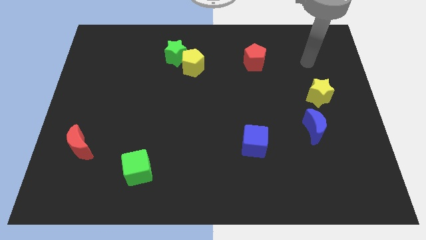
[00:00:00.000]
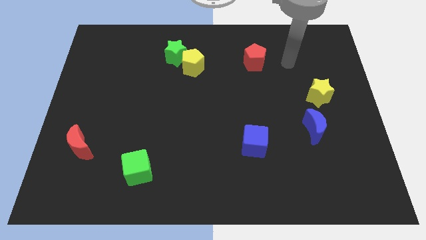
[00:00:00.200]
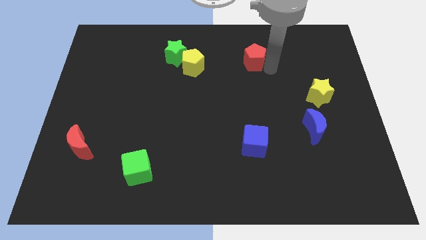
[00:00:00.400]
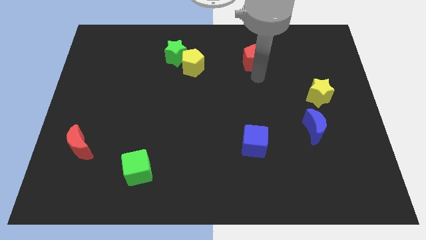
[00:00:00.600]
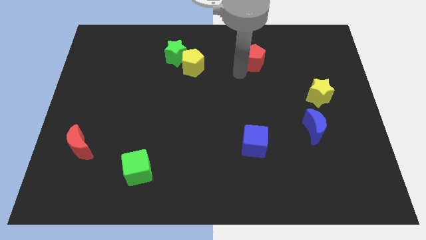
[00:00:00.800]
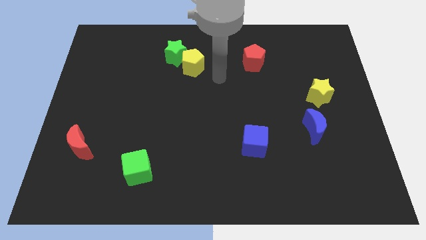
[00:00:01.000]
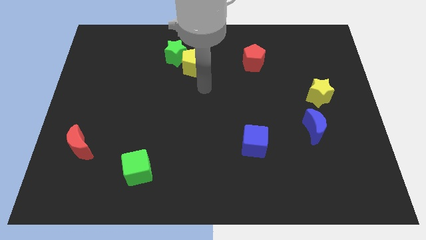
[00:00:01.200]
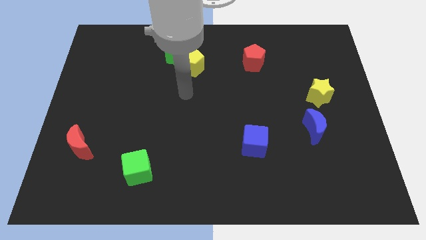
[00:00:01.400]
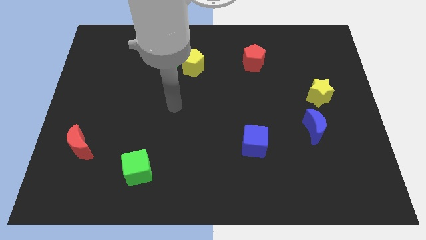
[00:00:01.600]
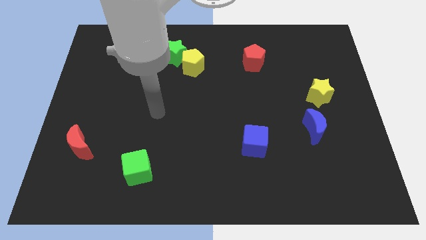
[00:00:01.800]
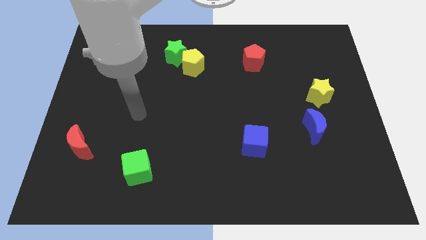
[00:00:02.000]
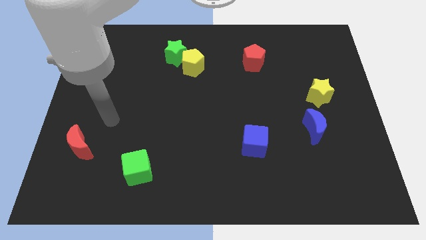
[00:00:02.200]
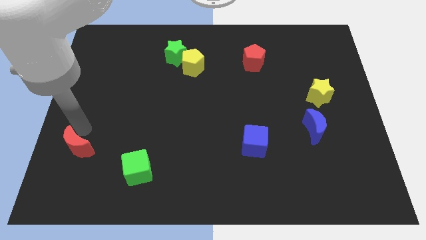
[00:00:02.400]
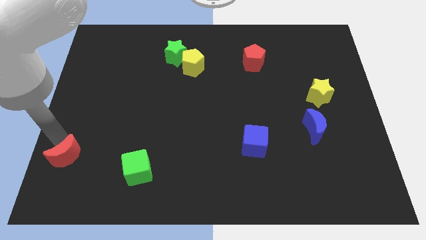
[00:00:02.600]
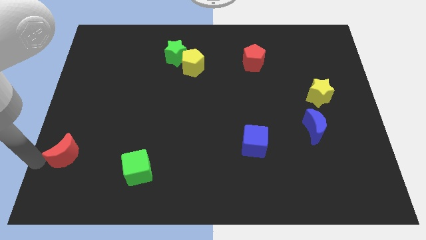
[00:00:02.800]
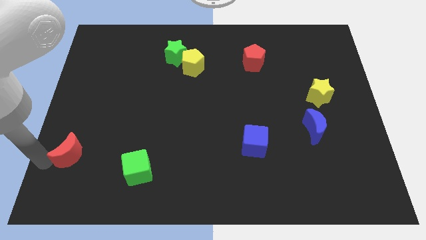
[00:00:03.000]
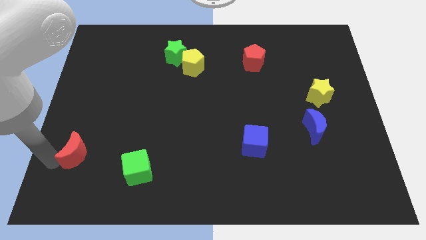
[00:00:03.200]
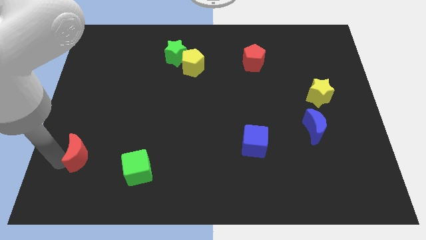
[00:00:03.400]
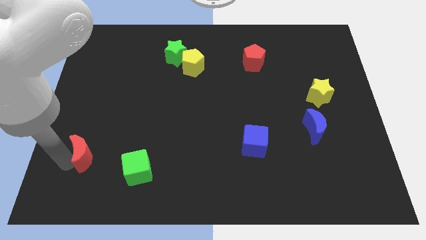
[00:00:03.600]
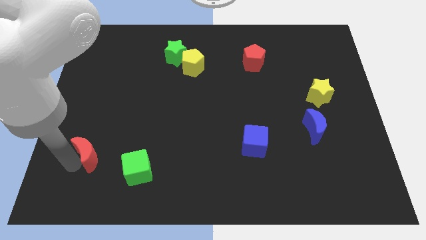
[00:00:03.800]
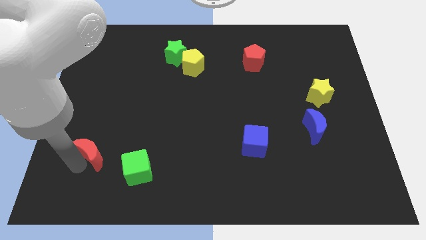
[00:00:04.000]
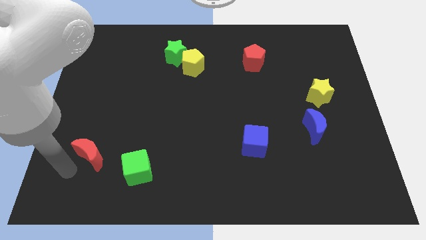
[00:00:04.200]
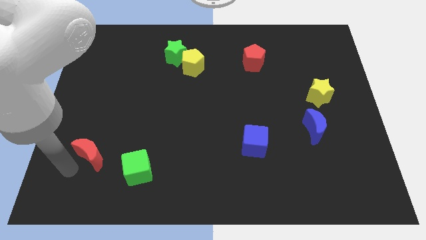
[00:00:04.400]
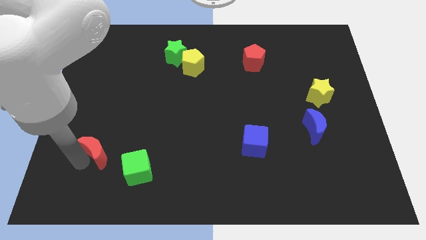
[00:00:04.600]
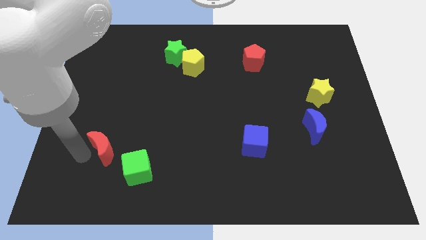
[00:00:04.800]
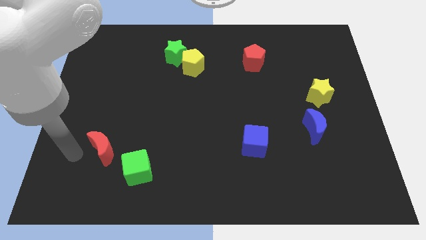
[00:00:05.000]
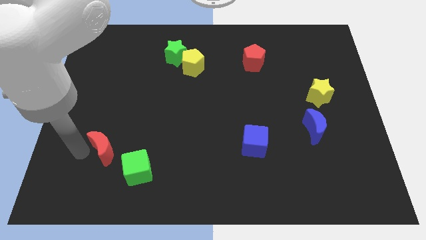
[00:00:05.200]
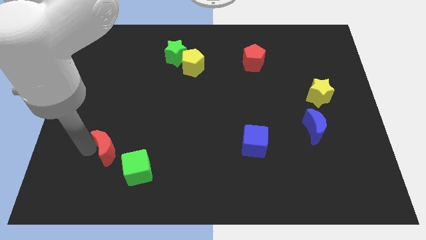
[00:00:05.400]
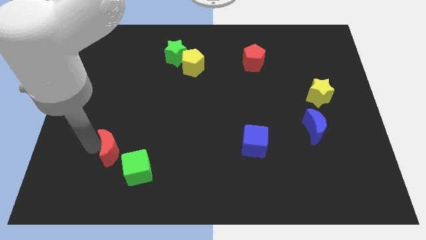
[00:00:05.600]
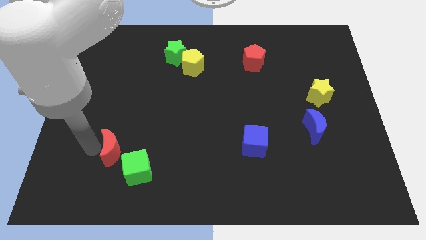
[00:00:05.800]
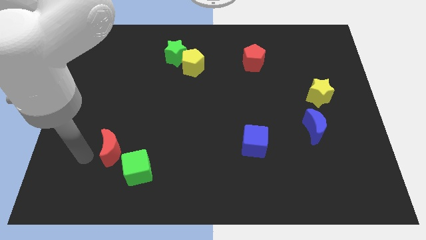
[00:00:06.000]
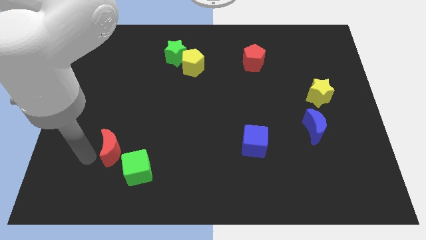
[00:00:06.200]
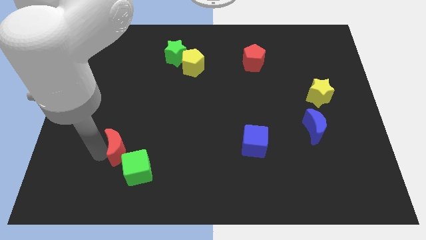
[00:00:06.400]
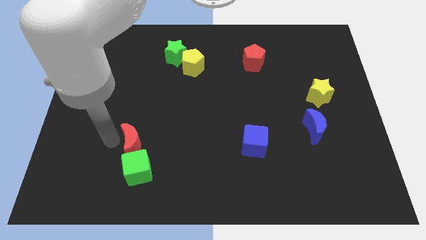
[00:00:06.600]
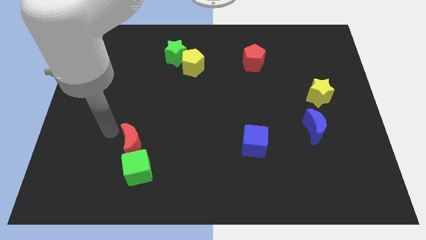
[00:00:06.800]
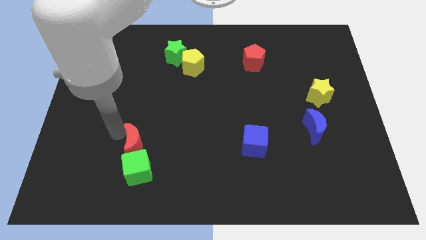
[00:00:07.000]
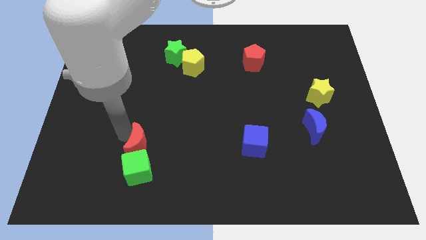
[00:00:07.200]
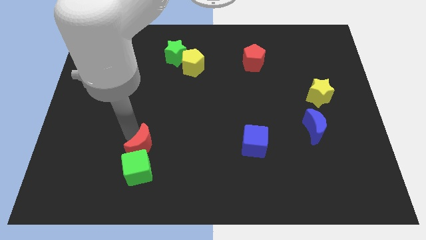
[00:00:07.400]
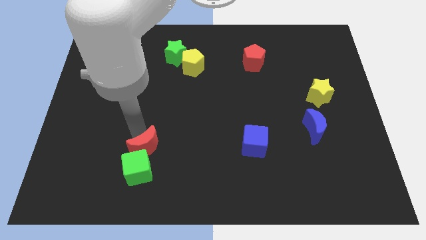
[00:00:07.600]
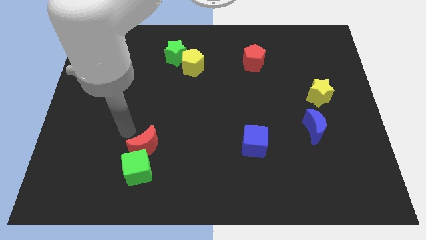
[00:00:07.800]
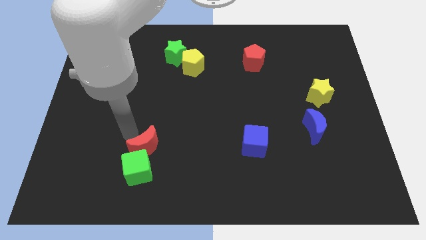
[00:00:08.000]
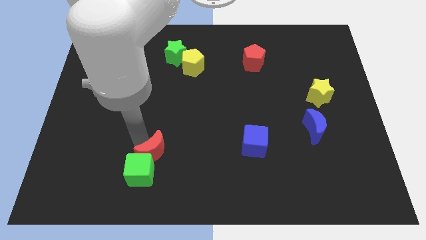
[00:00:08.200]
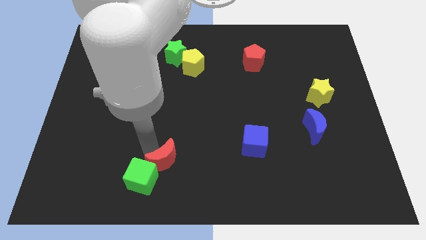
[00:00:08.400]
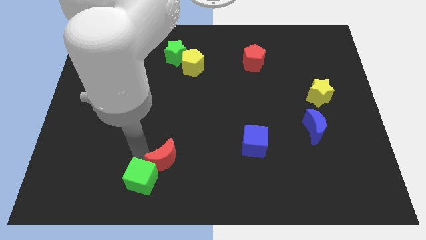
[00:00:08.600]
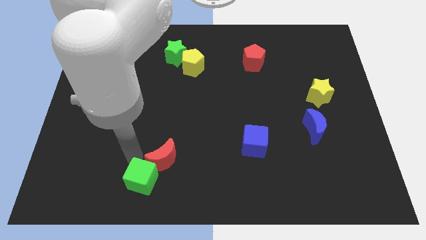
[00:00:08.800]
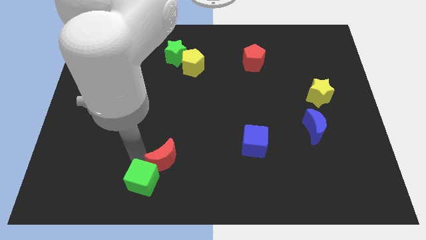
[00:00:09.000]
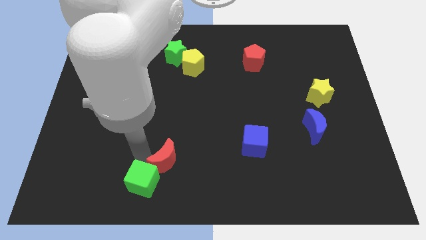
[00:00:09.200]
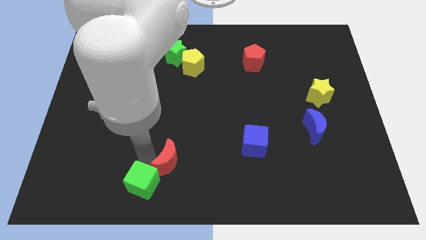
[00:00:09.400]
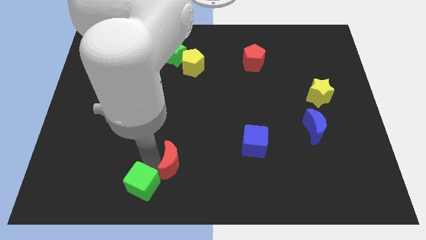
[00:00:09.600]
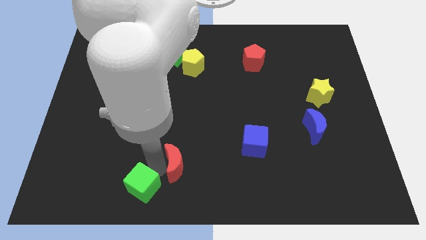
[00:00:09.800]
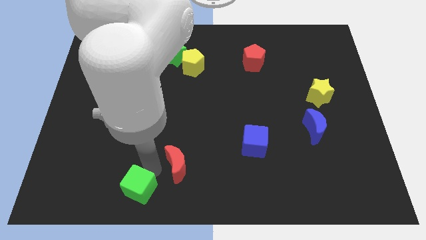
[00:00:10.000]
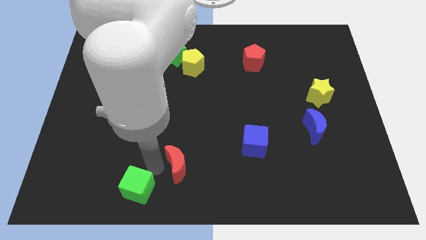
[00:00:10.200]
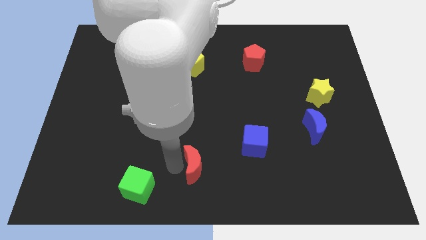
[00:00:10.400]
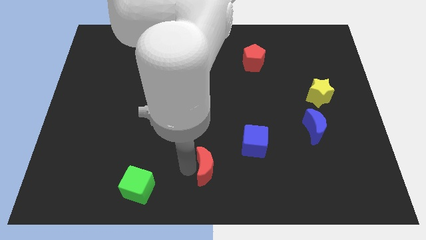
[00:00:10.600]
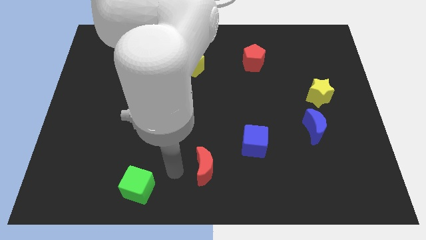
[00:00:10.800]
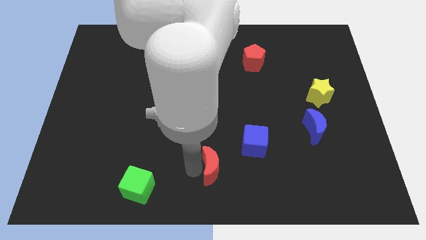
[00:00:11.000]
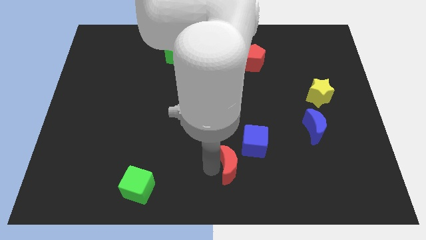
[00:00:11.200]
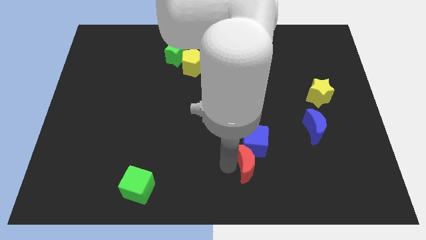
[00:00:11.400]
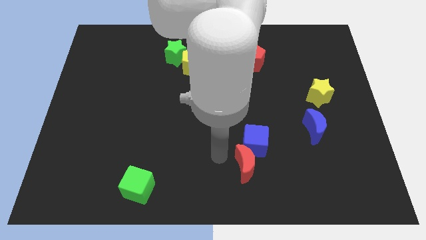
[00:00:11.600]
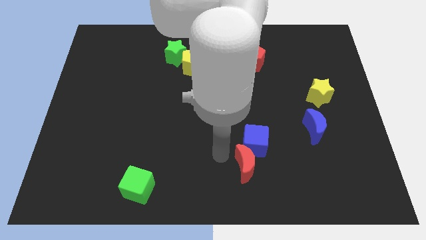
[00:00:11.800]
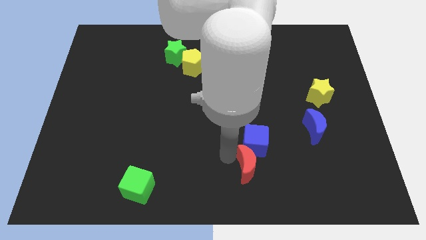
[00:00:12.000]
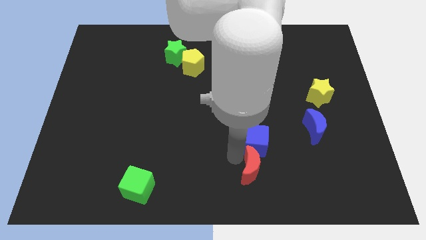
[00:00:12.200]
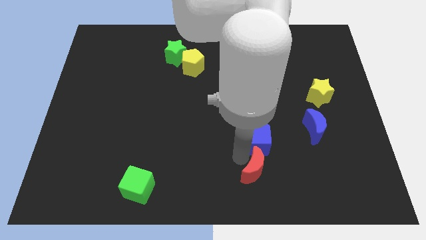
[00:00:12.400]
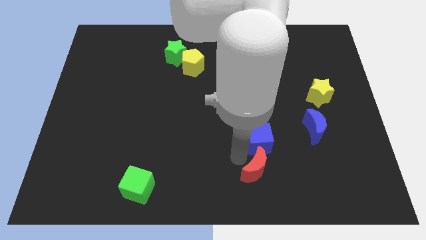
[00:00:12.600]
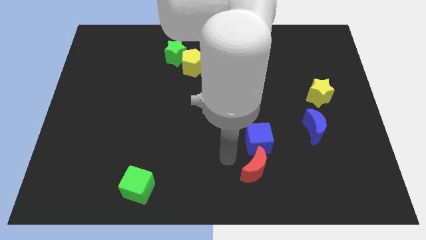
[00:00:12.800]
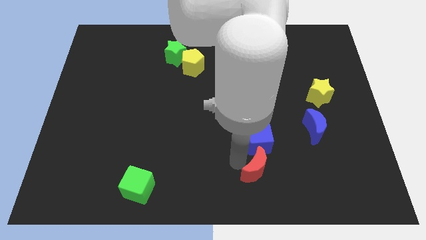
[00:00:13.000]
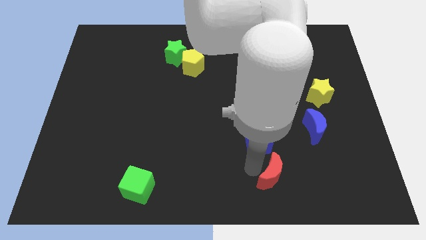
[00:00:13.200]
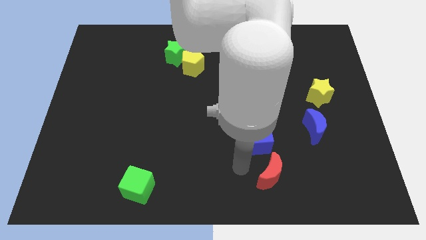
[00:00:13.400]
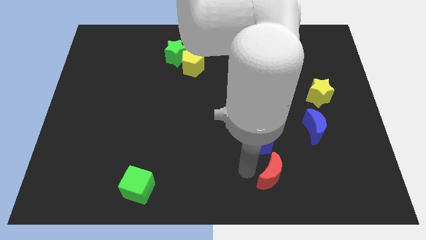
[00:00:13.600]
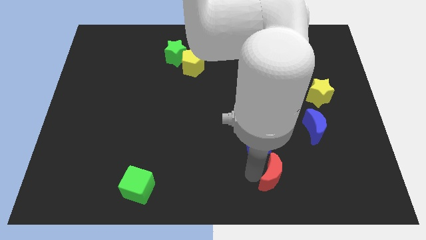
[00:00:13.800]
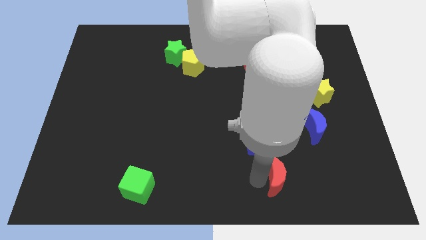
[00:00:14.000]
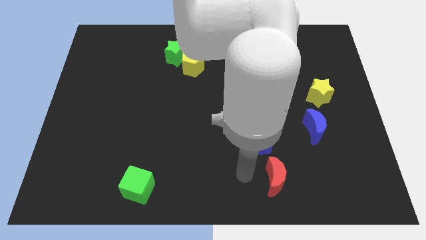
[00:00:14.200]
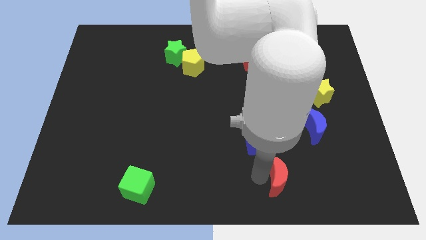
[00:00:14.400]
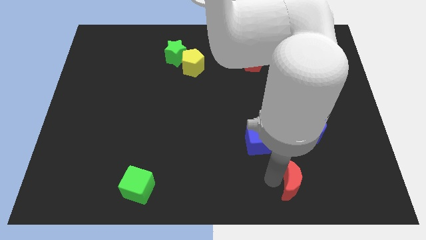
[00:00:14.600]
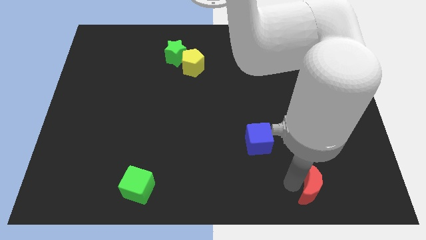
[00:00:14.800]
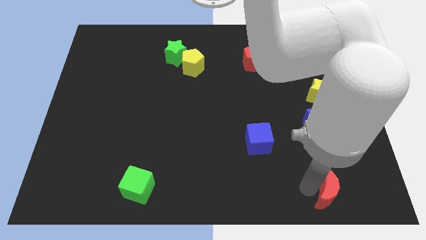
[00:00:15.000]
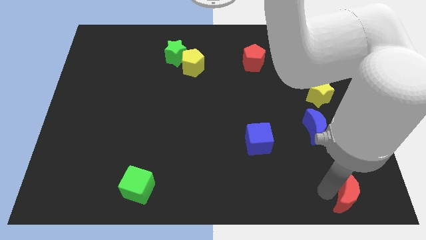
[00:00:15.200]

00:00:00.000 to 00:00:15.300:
put the red moon to the bottom right
